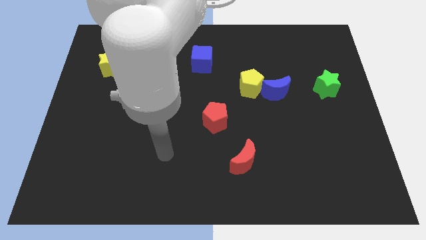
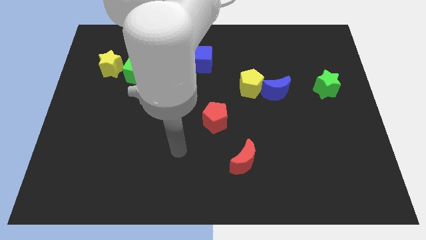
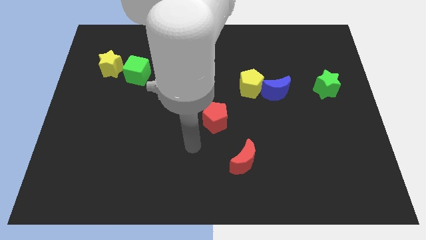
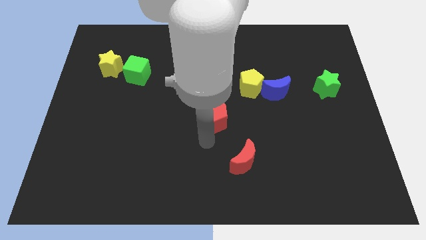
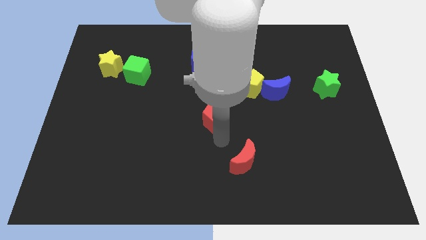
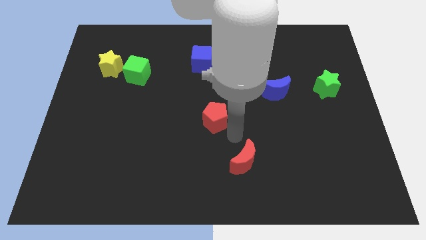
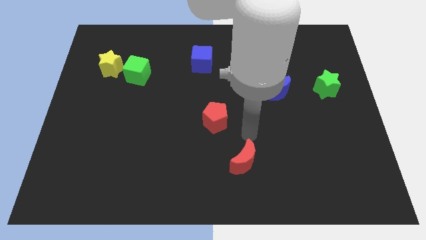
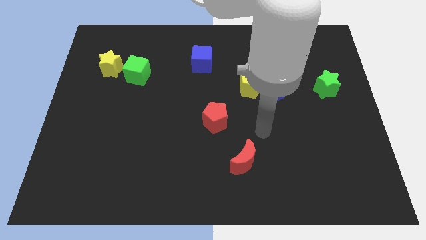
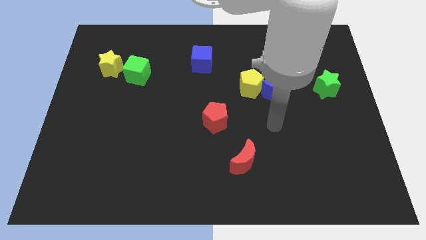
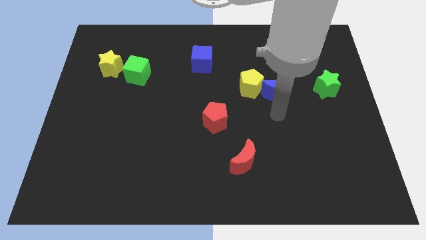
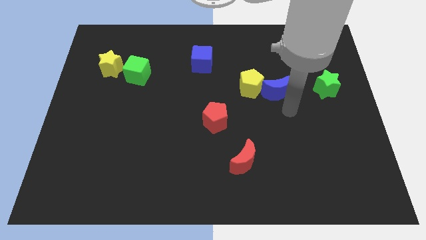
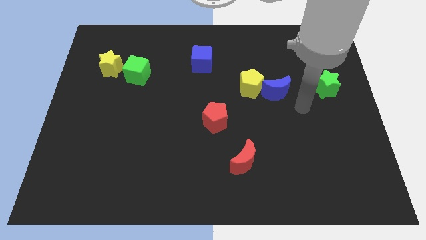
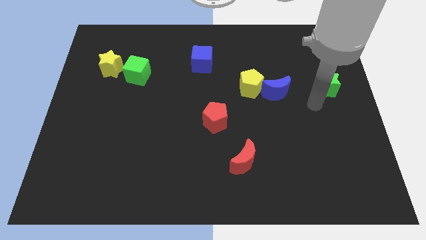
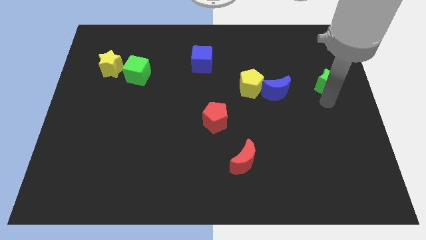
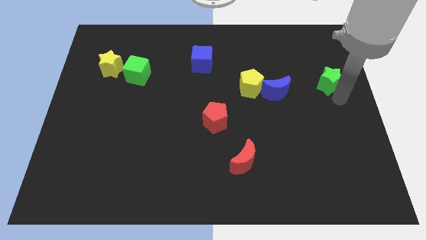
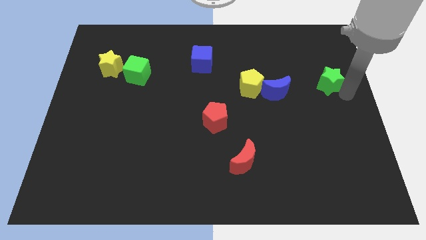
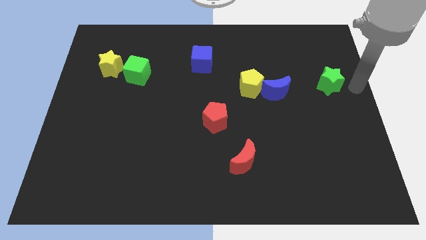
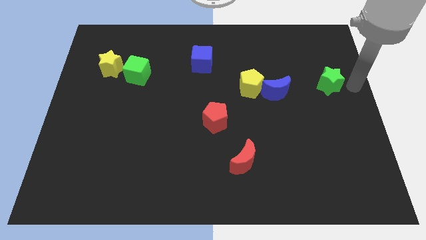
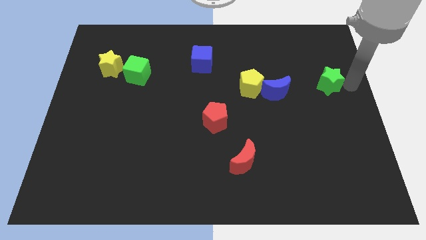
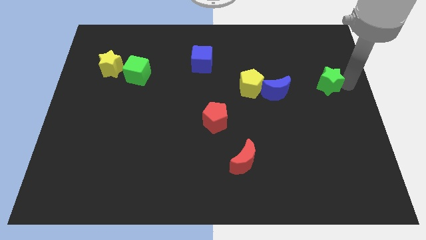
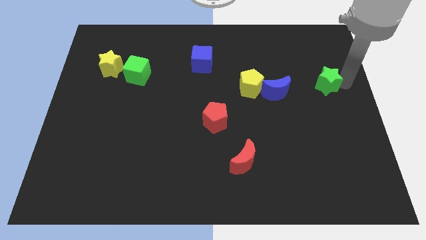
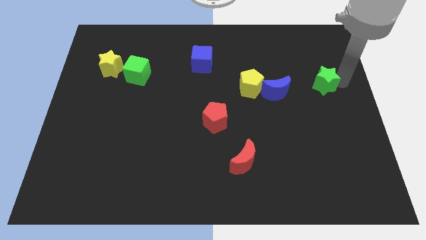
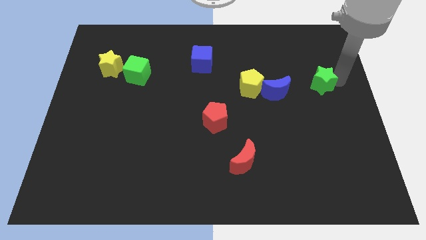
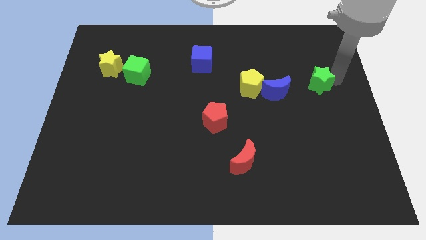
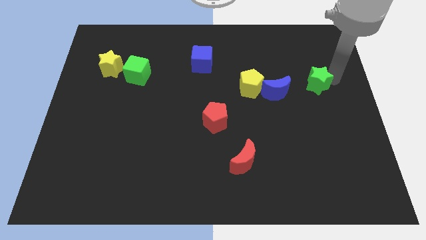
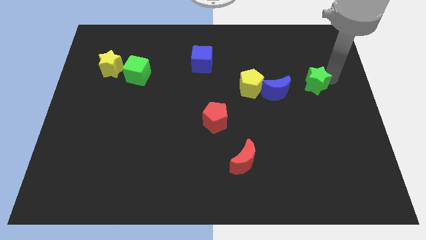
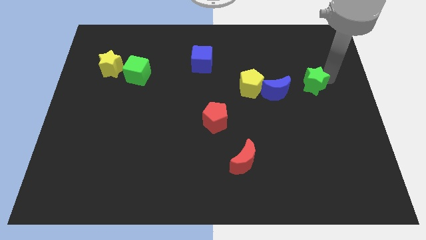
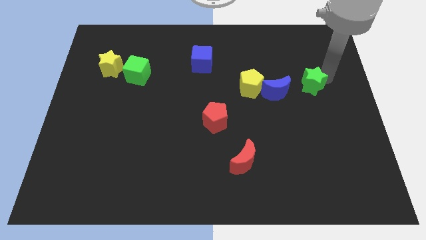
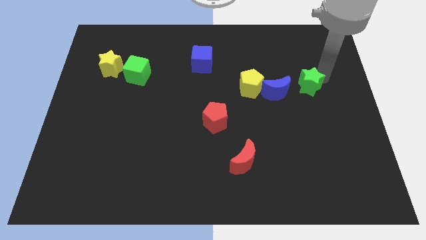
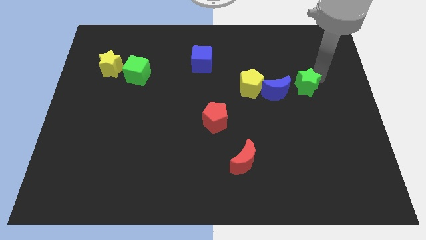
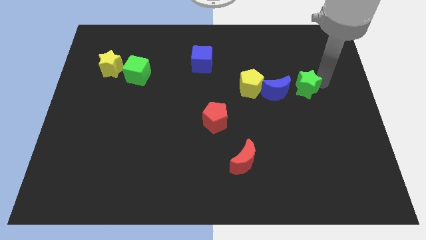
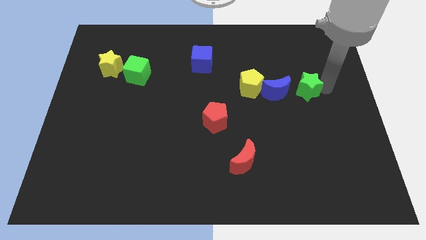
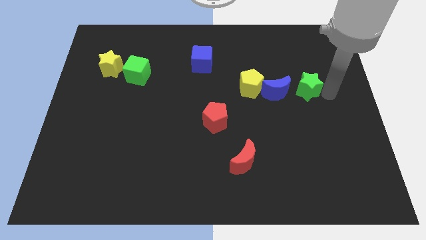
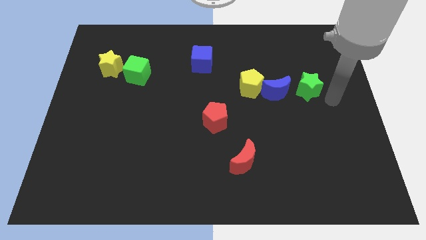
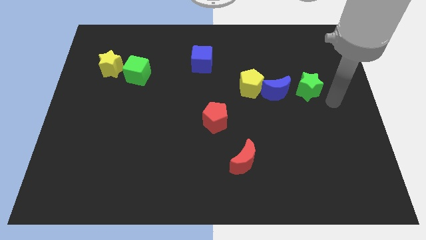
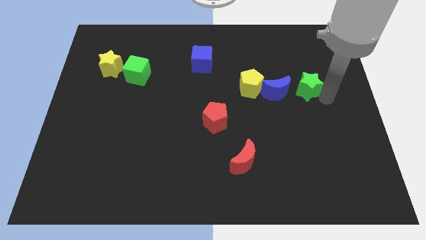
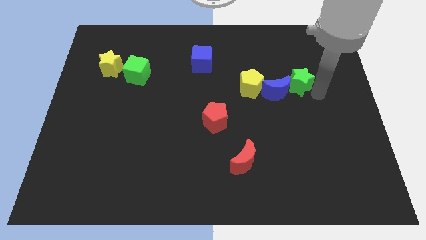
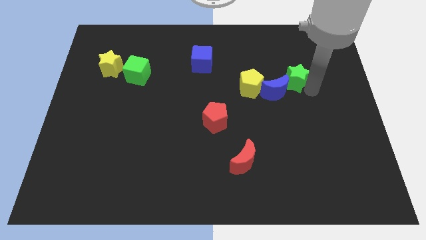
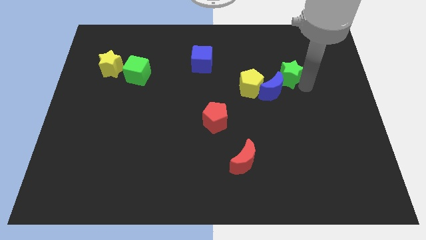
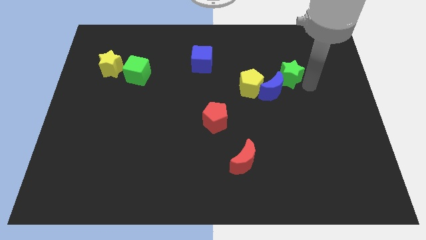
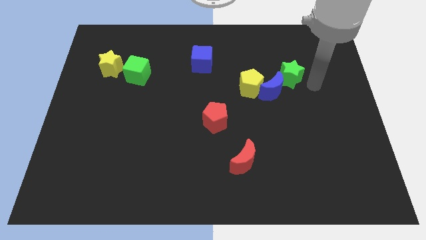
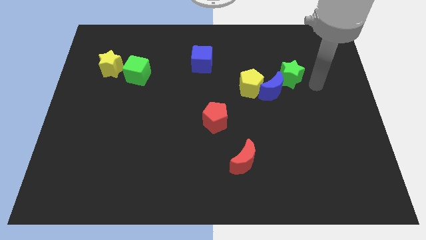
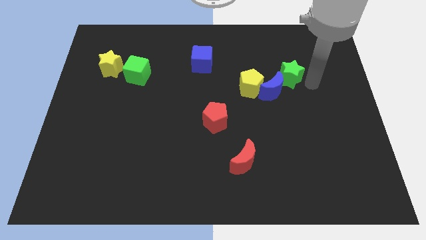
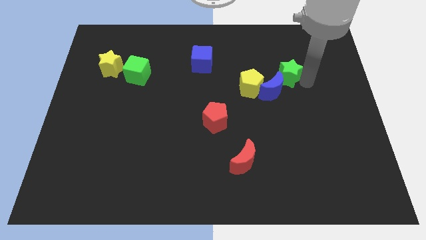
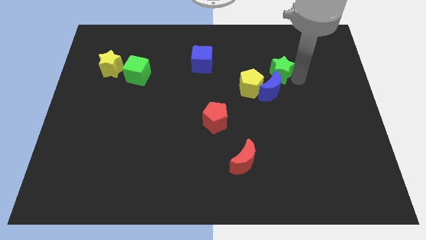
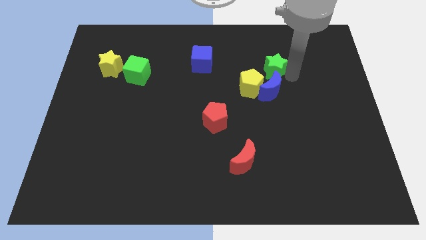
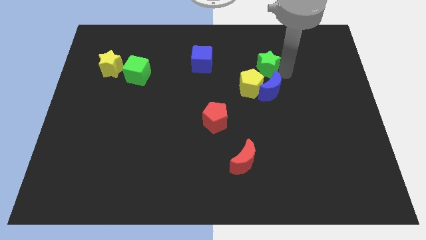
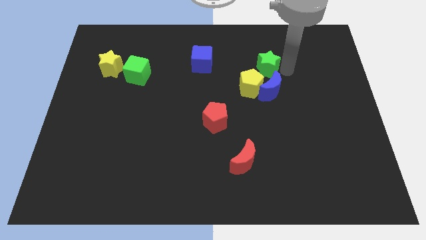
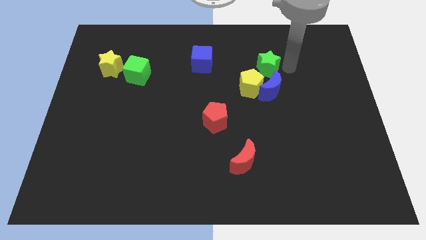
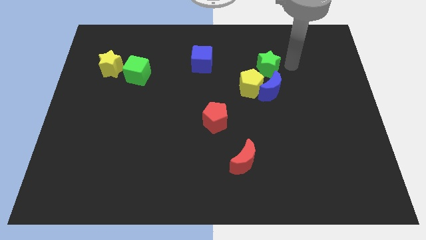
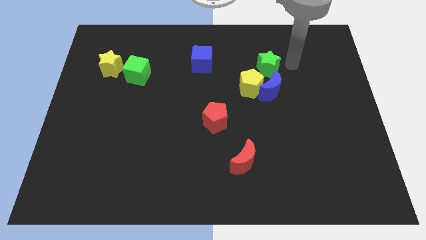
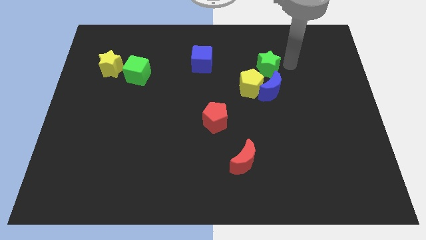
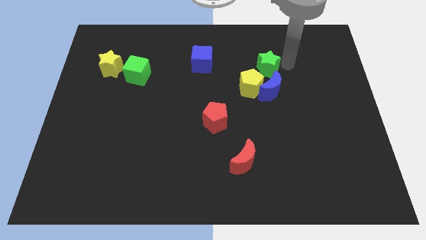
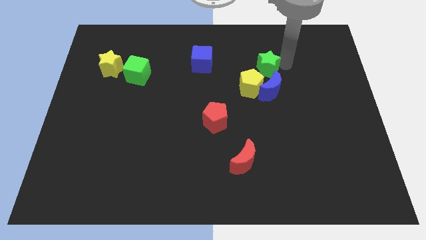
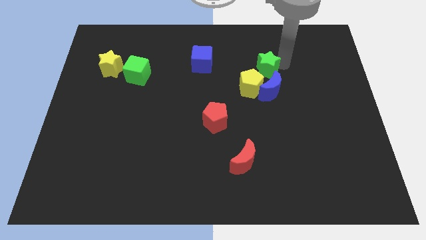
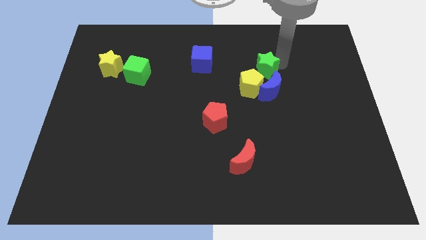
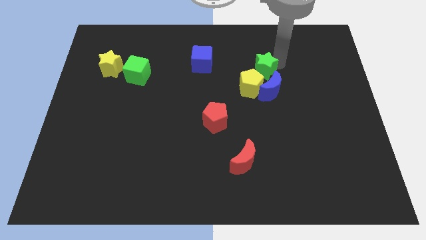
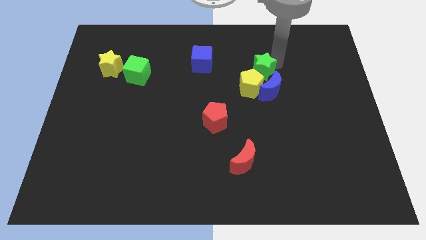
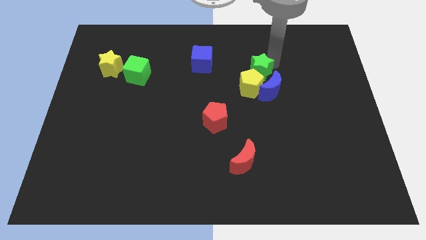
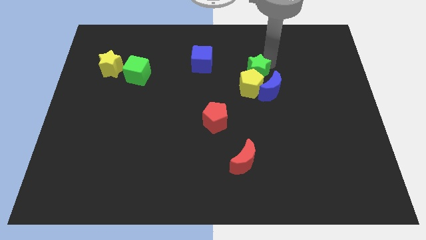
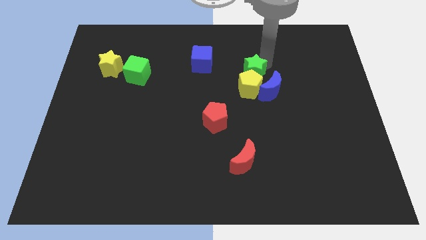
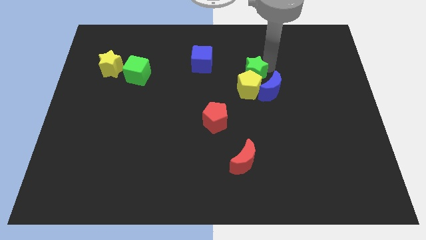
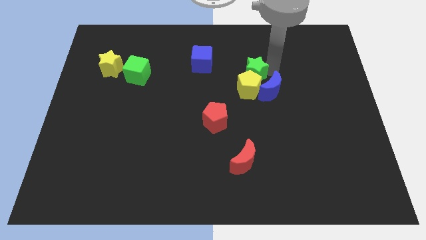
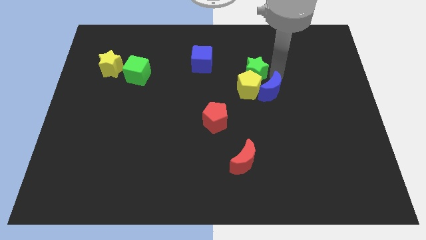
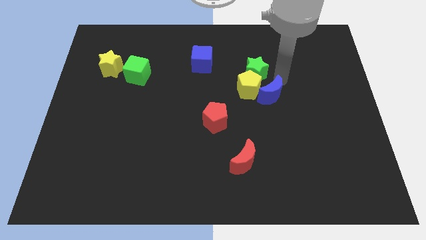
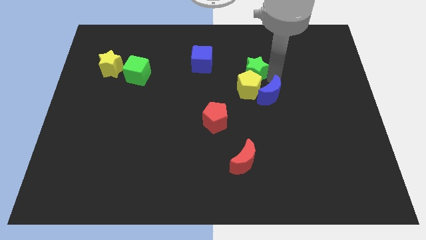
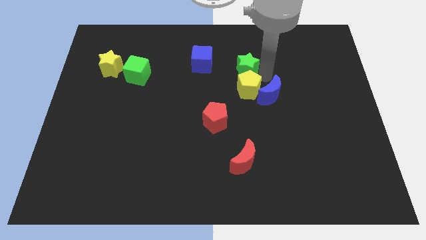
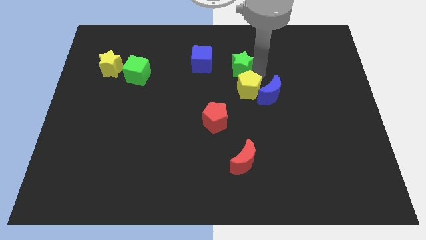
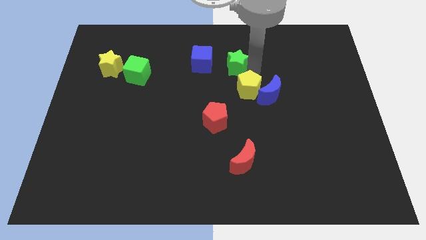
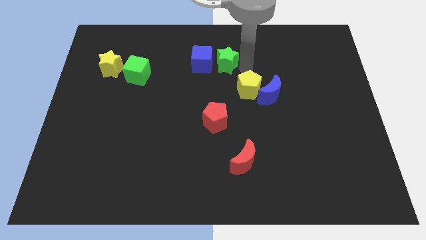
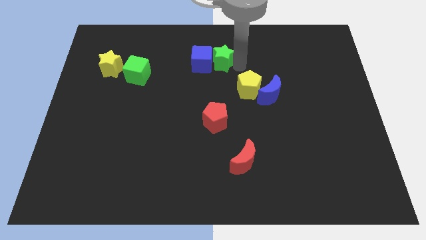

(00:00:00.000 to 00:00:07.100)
push the green star next to the blue cube

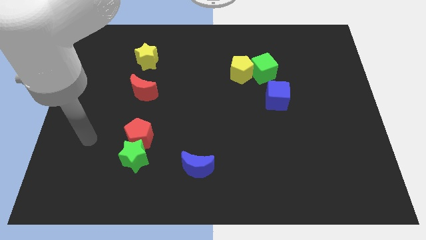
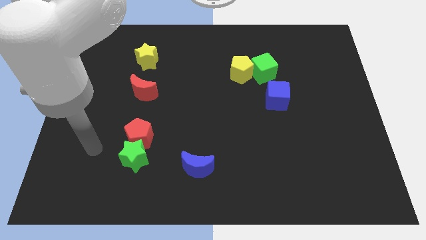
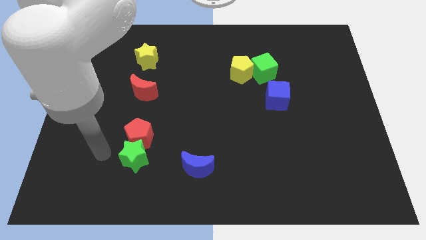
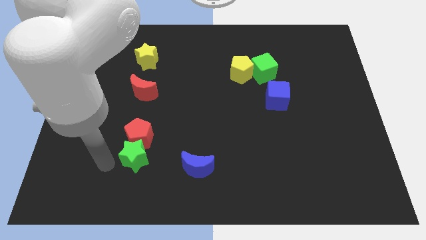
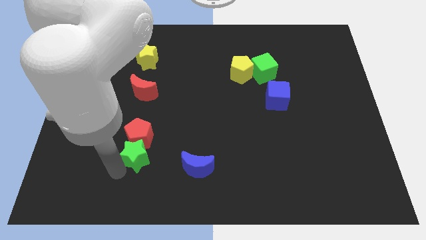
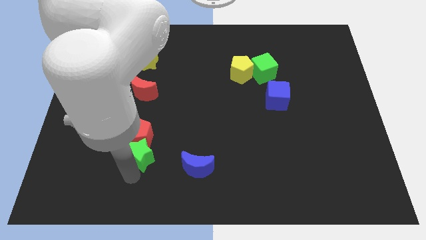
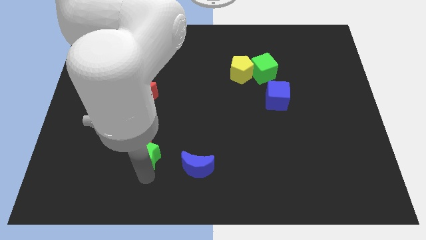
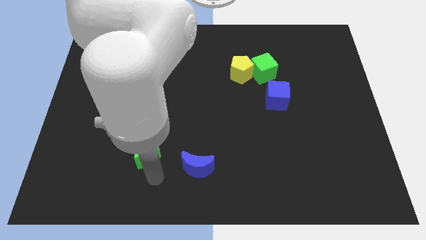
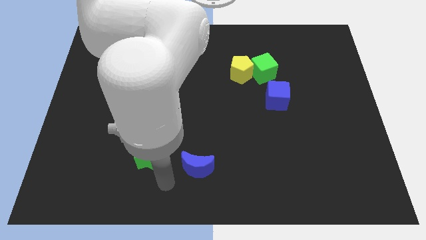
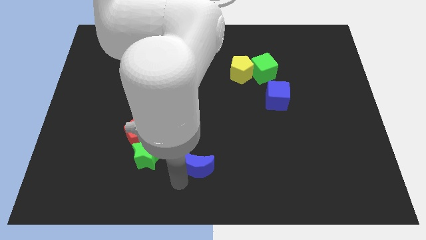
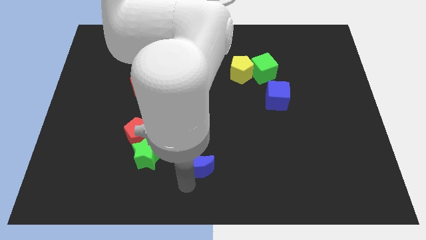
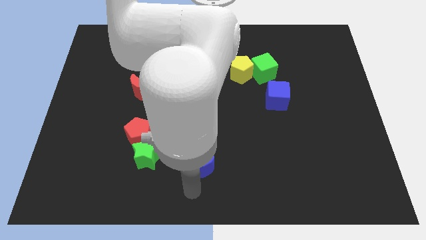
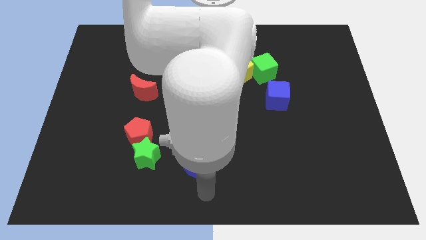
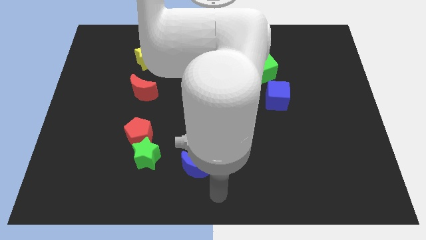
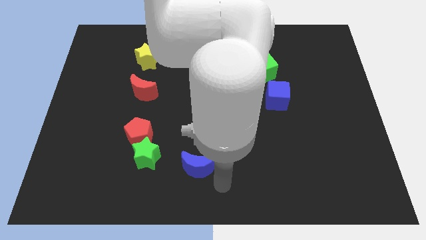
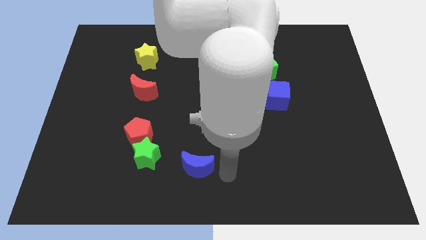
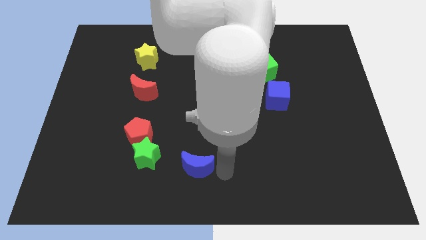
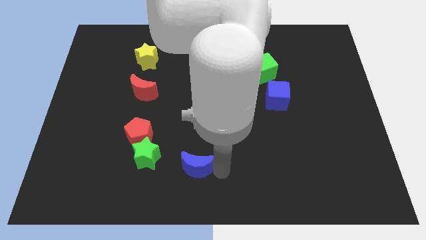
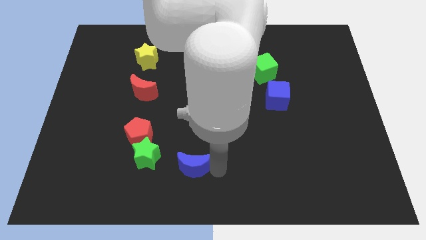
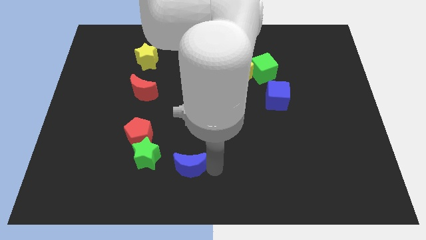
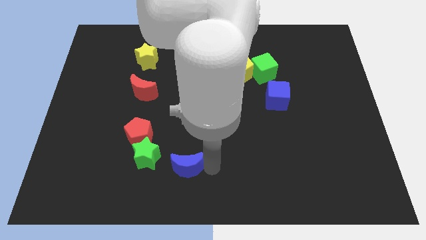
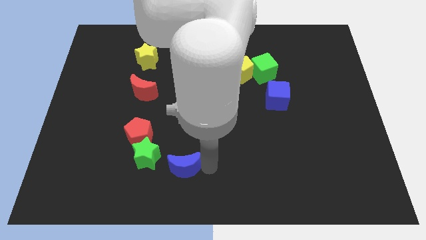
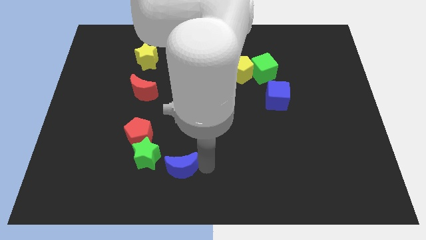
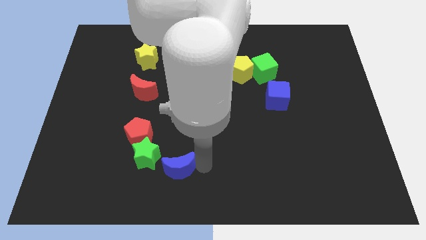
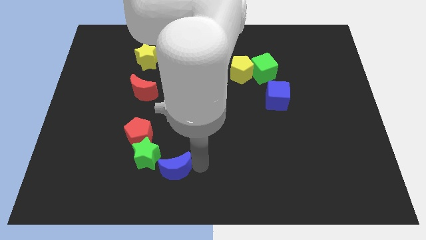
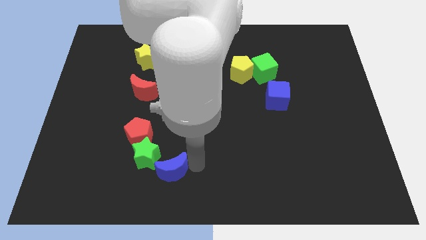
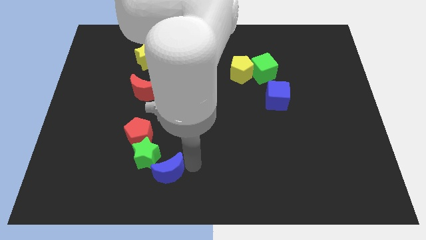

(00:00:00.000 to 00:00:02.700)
move the blue moon towards the green star
